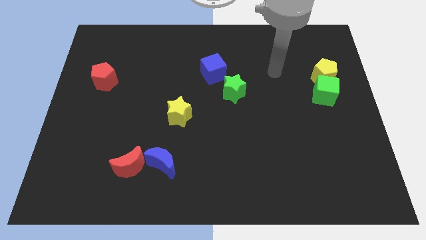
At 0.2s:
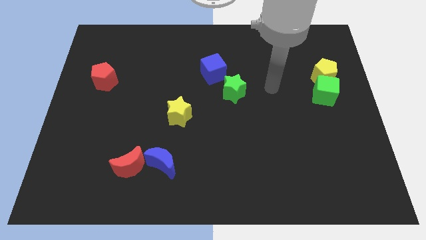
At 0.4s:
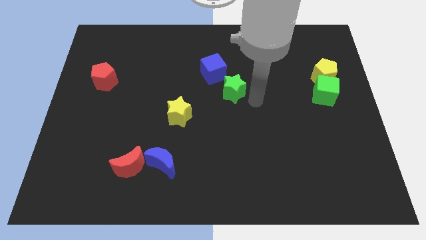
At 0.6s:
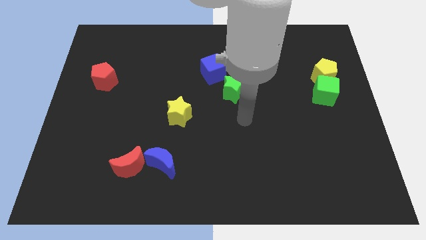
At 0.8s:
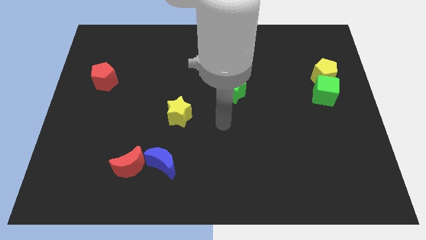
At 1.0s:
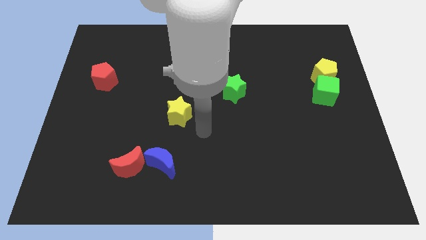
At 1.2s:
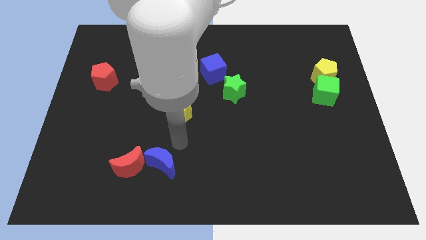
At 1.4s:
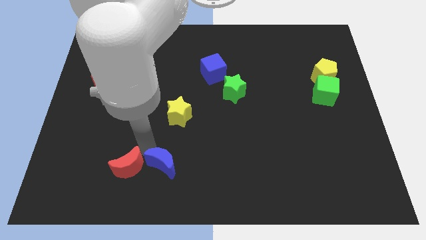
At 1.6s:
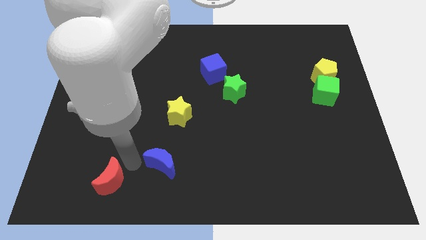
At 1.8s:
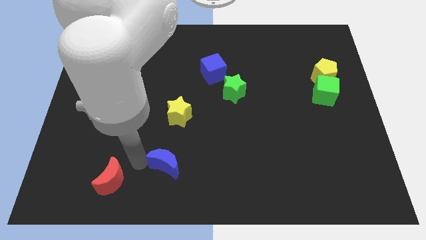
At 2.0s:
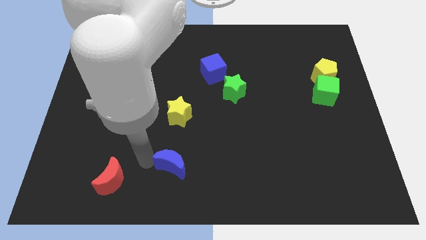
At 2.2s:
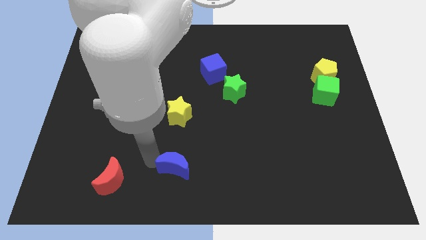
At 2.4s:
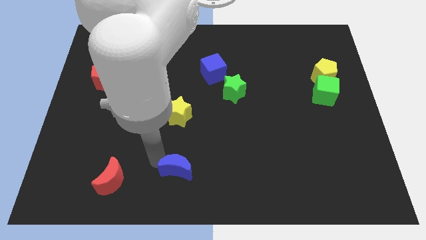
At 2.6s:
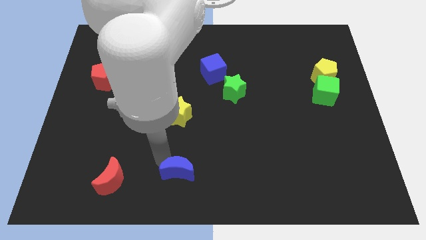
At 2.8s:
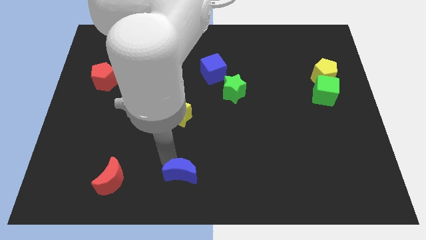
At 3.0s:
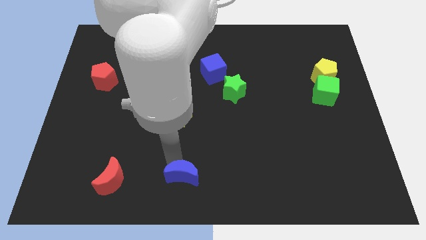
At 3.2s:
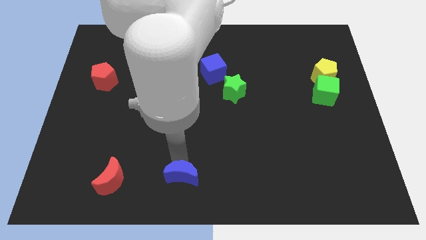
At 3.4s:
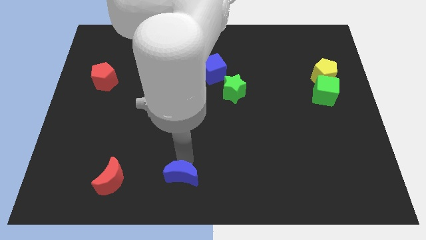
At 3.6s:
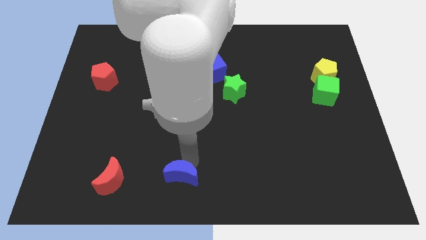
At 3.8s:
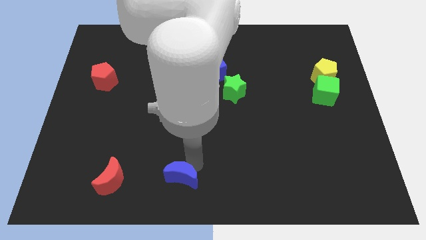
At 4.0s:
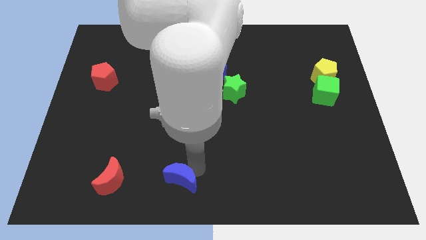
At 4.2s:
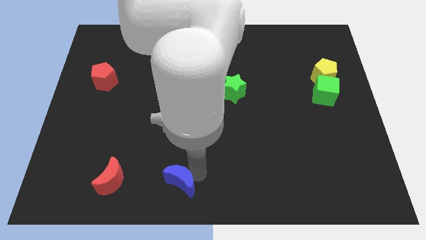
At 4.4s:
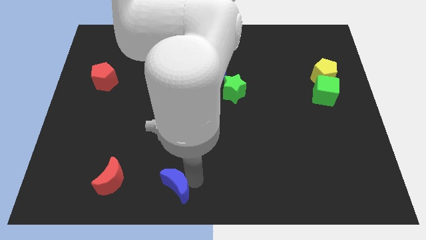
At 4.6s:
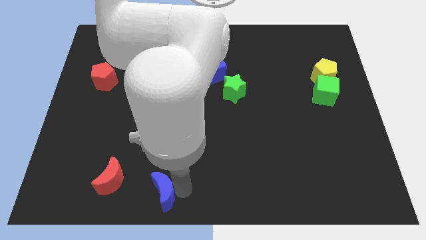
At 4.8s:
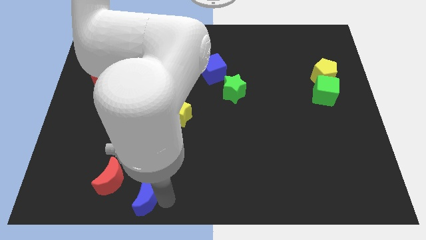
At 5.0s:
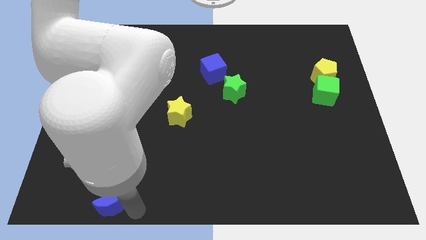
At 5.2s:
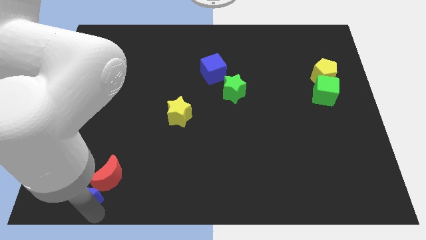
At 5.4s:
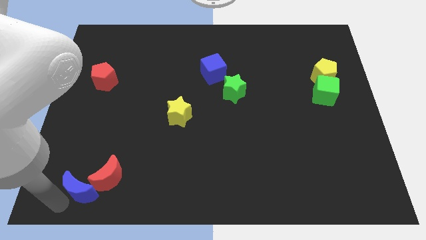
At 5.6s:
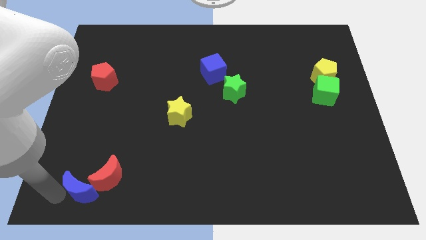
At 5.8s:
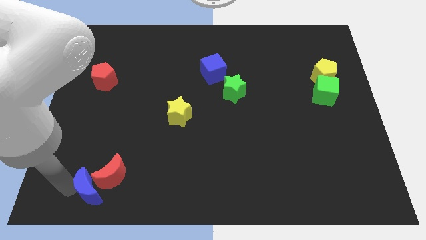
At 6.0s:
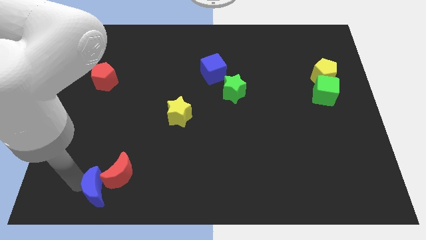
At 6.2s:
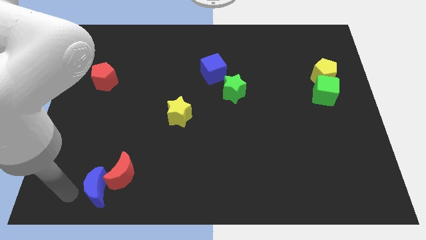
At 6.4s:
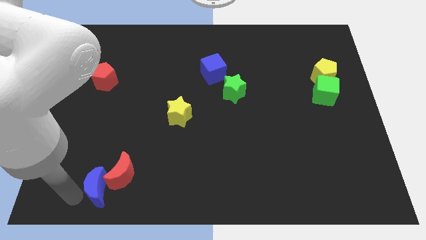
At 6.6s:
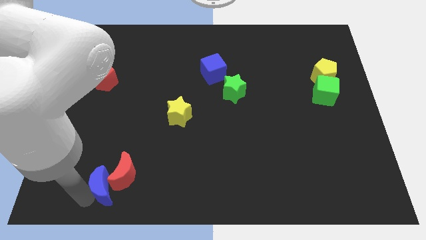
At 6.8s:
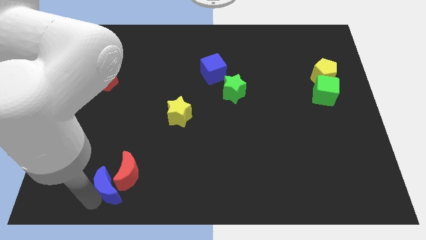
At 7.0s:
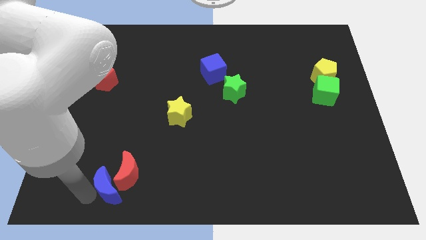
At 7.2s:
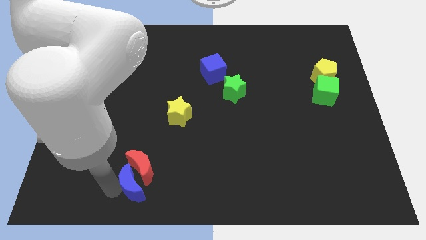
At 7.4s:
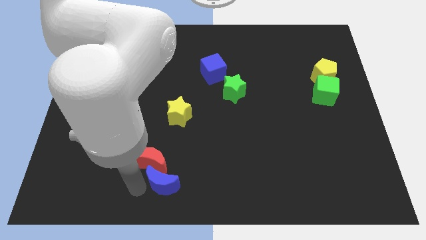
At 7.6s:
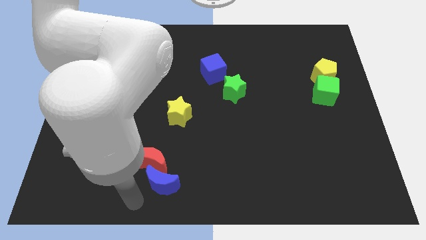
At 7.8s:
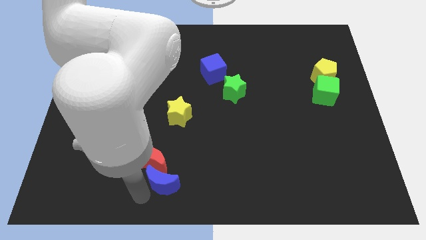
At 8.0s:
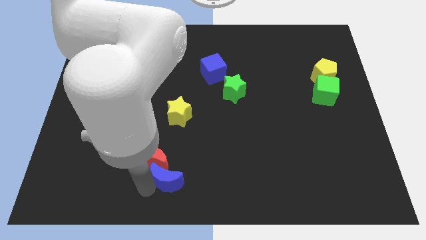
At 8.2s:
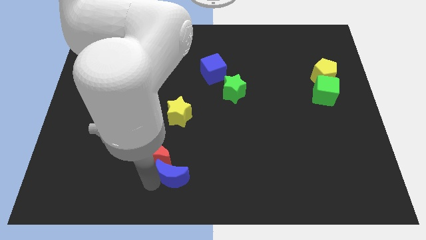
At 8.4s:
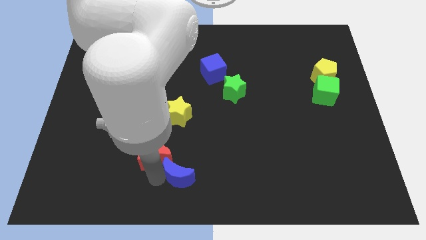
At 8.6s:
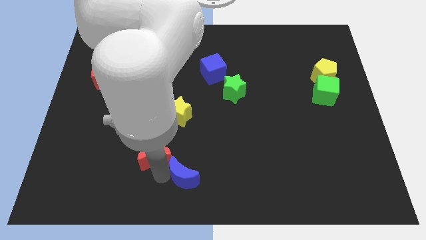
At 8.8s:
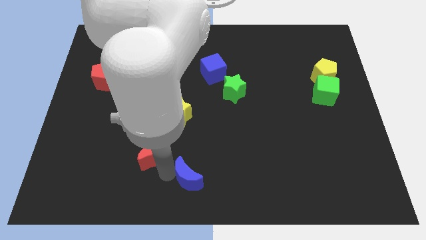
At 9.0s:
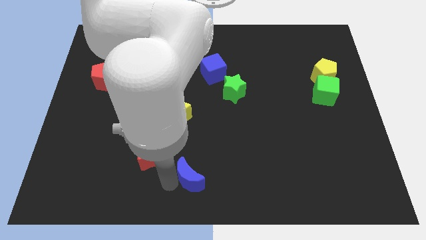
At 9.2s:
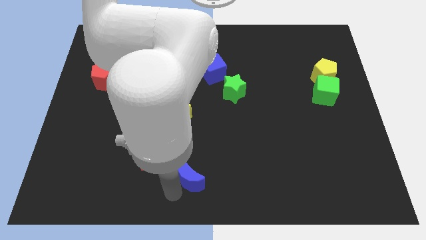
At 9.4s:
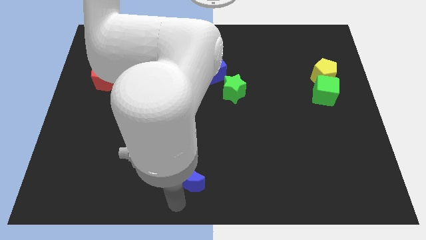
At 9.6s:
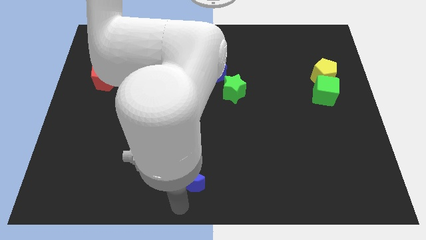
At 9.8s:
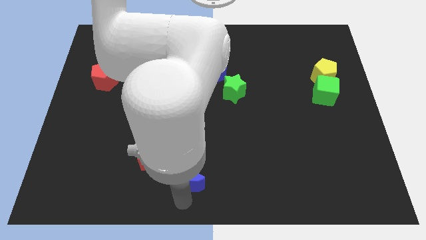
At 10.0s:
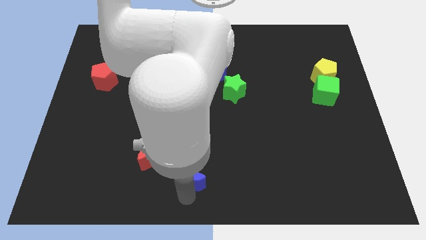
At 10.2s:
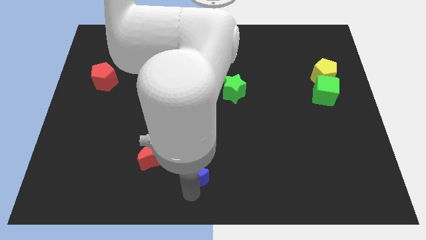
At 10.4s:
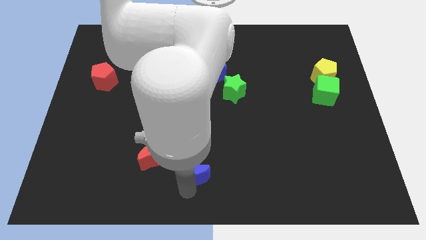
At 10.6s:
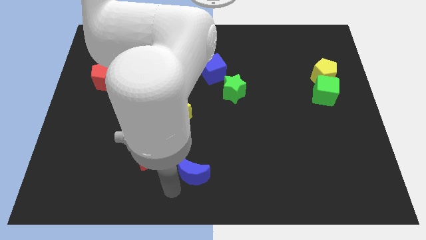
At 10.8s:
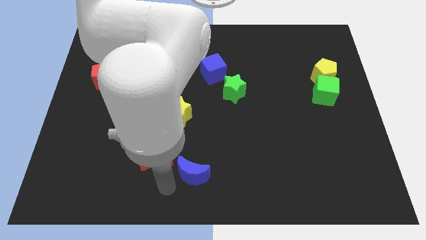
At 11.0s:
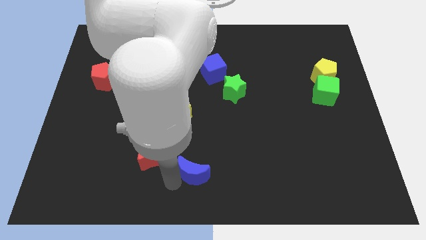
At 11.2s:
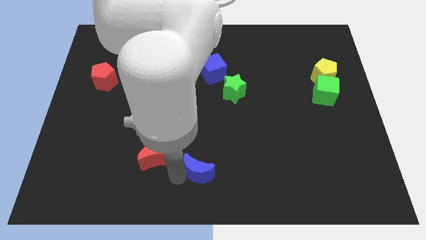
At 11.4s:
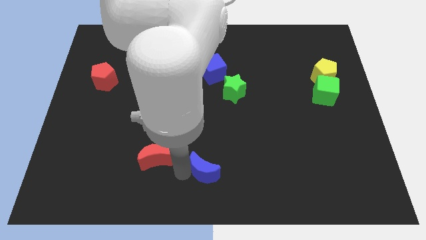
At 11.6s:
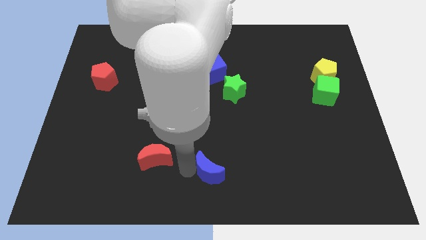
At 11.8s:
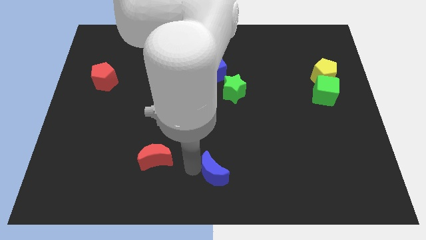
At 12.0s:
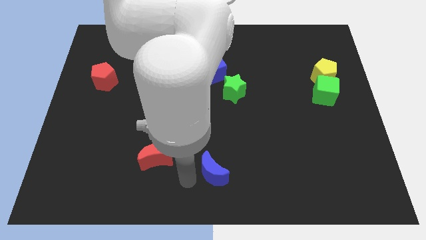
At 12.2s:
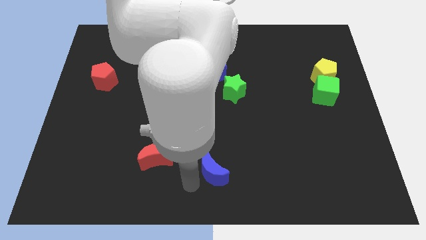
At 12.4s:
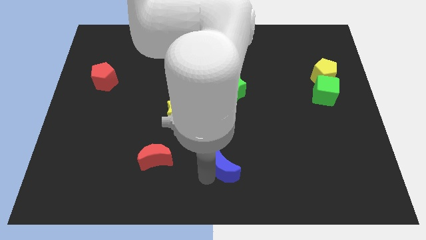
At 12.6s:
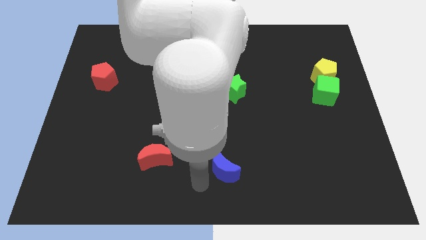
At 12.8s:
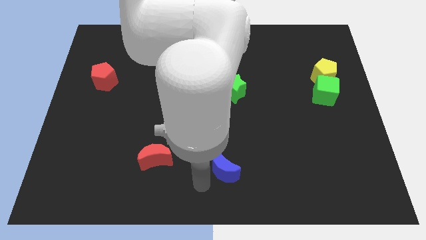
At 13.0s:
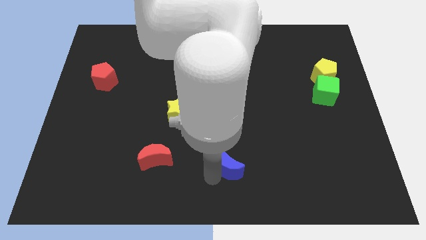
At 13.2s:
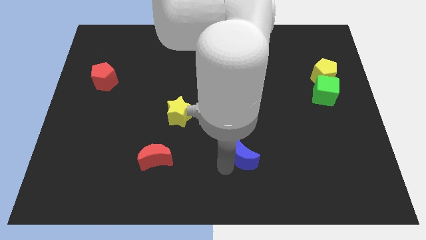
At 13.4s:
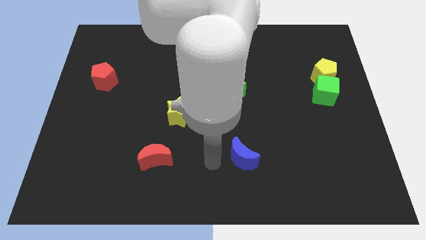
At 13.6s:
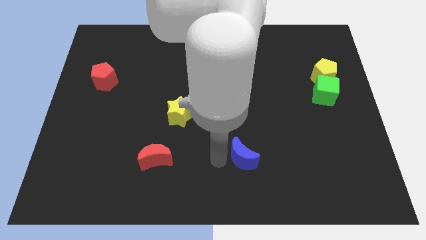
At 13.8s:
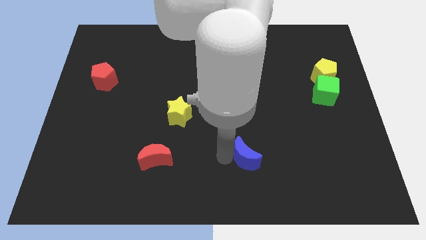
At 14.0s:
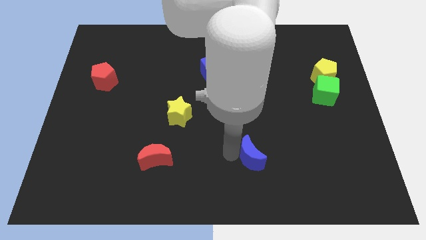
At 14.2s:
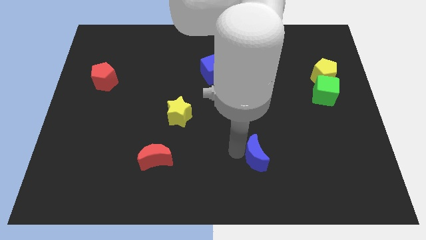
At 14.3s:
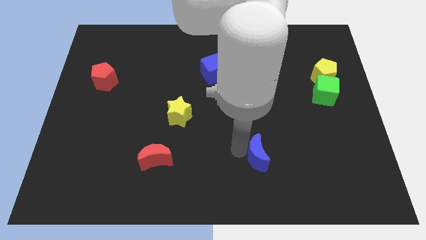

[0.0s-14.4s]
push the blue moon to the right

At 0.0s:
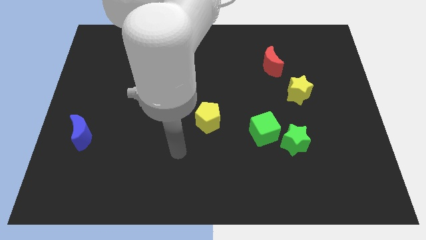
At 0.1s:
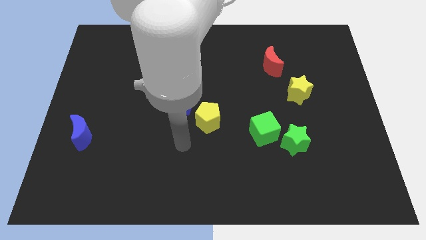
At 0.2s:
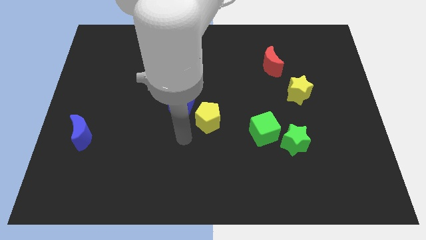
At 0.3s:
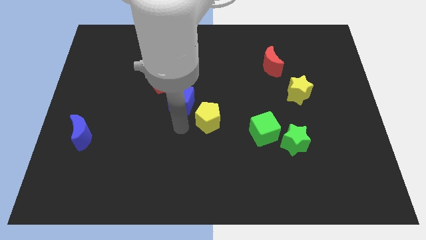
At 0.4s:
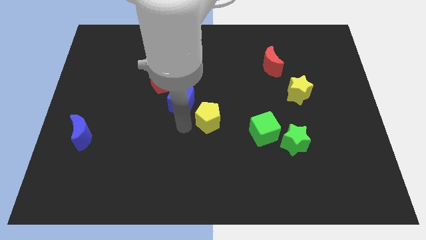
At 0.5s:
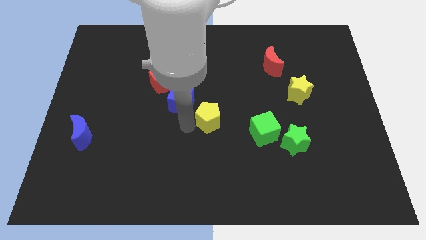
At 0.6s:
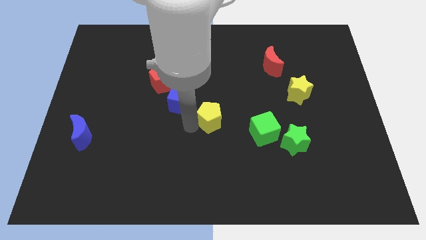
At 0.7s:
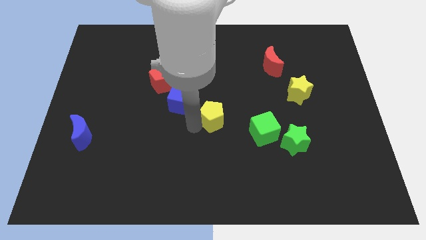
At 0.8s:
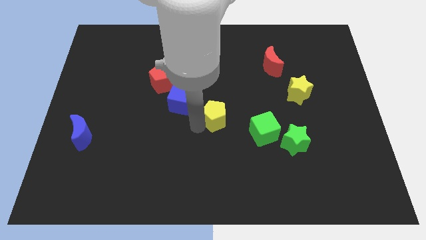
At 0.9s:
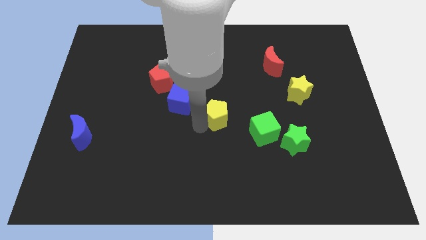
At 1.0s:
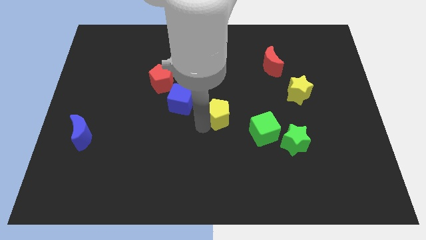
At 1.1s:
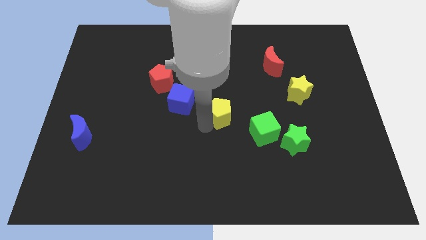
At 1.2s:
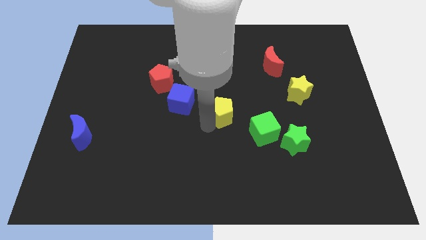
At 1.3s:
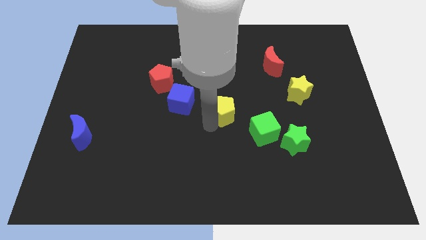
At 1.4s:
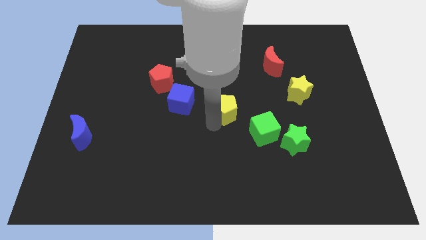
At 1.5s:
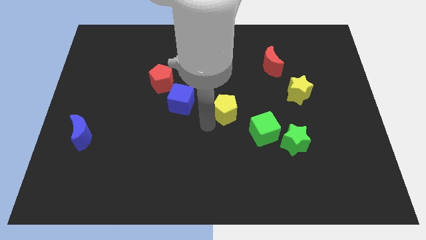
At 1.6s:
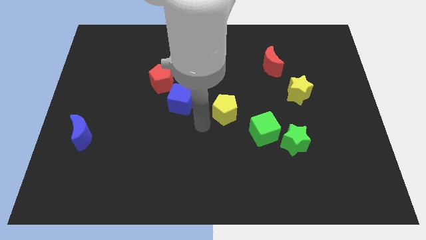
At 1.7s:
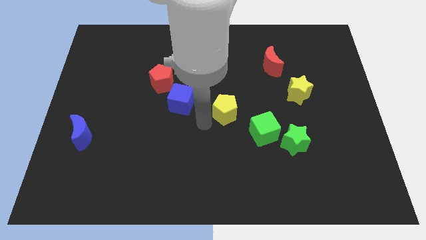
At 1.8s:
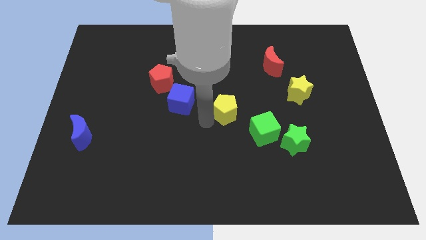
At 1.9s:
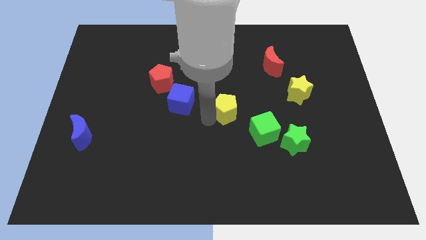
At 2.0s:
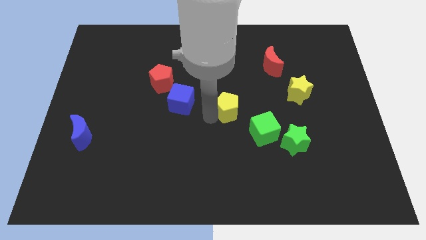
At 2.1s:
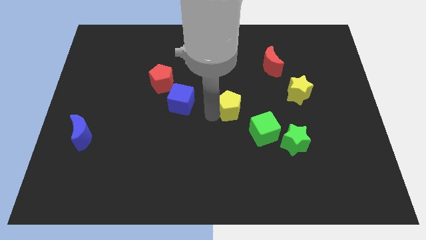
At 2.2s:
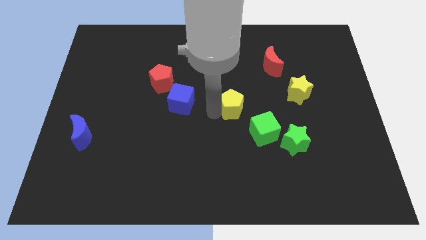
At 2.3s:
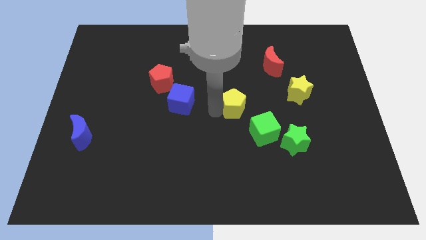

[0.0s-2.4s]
slide the yellow pentagon upwards and right a little bit
